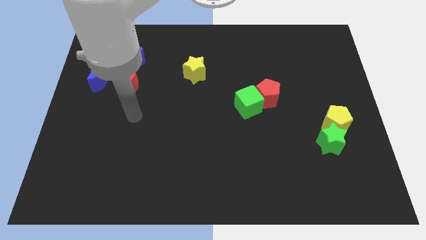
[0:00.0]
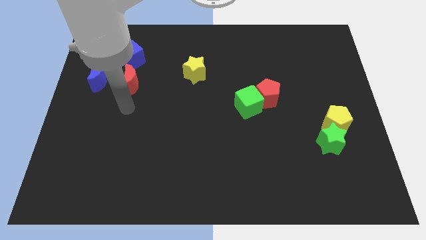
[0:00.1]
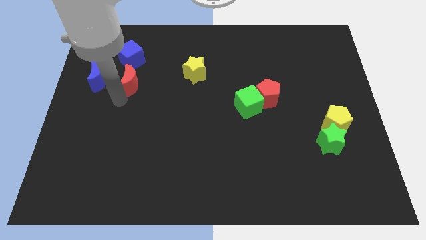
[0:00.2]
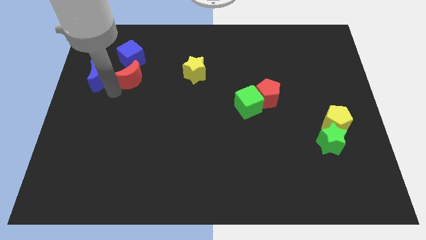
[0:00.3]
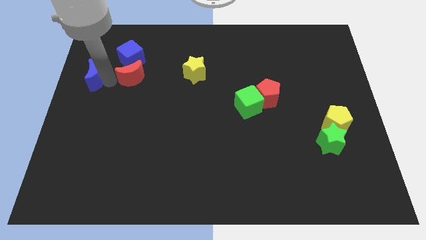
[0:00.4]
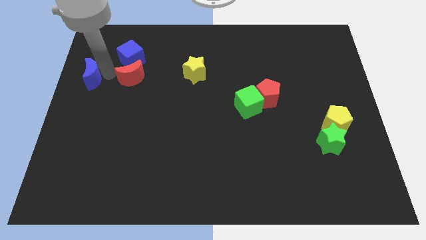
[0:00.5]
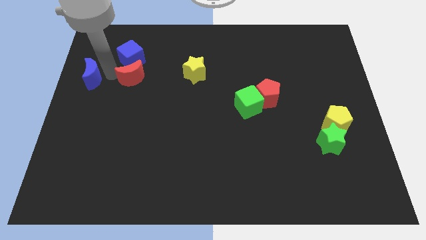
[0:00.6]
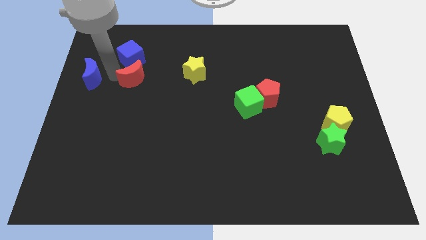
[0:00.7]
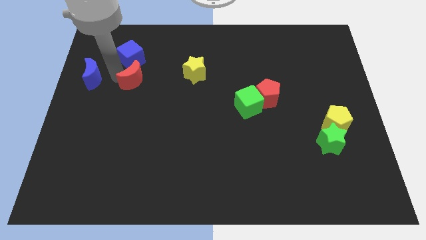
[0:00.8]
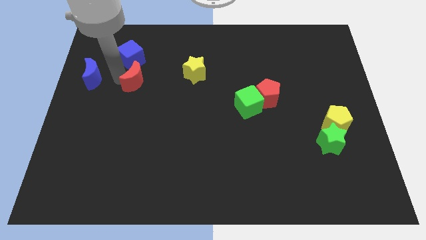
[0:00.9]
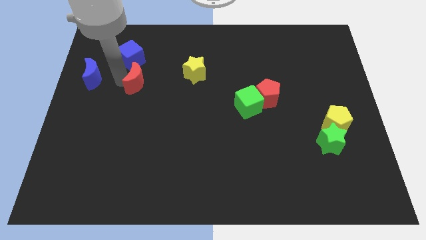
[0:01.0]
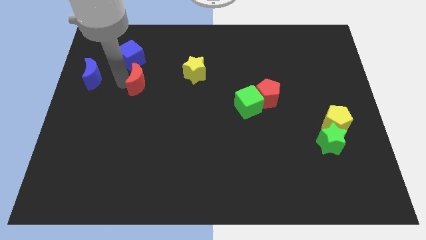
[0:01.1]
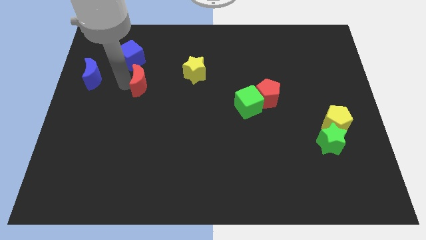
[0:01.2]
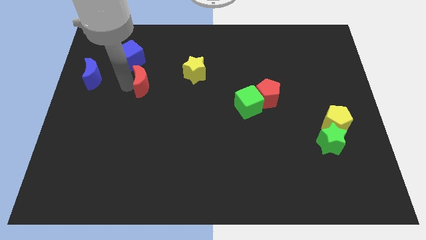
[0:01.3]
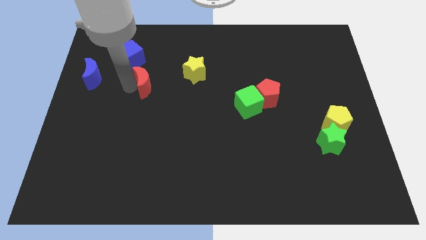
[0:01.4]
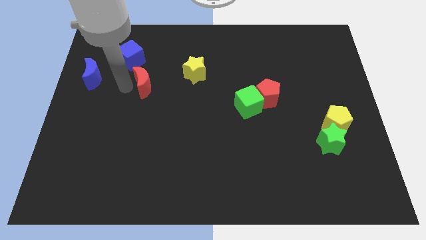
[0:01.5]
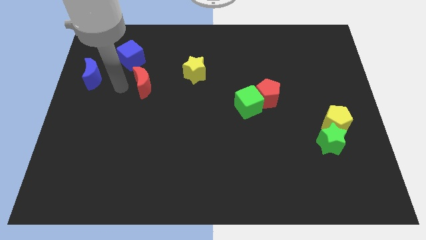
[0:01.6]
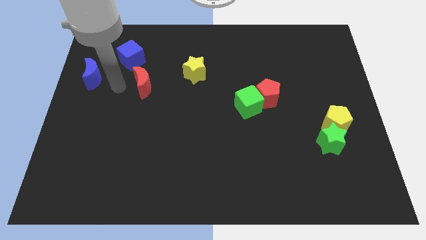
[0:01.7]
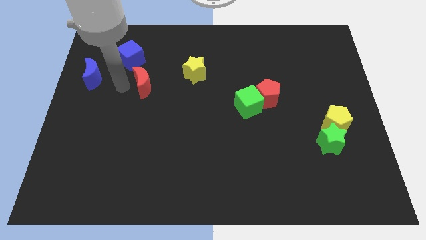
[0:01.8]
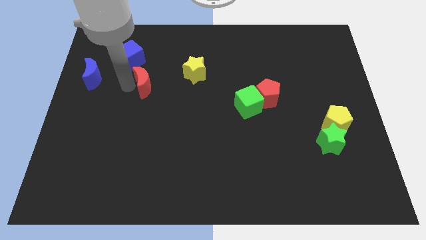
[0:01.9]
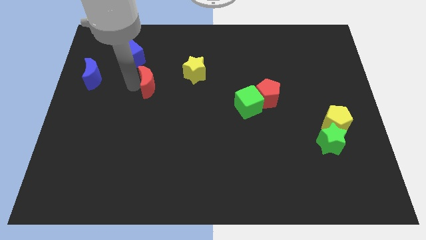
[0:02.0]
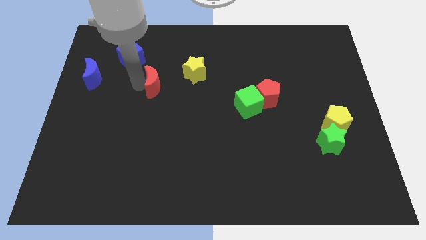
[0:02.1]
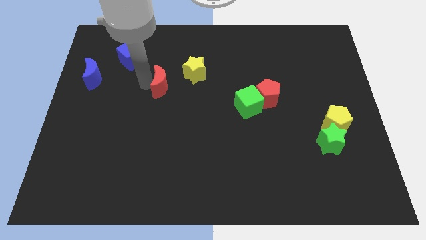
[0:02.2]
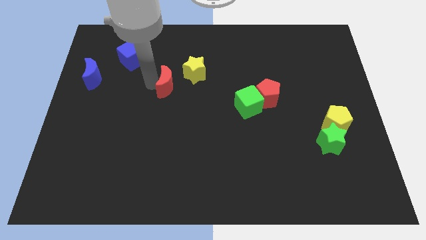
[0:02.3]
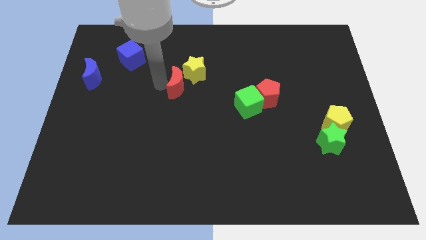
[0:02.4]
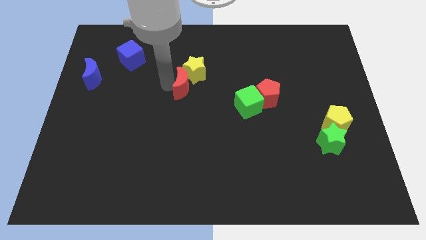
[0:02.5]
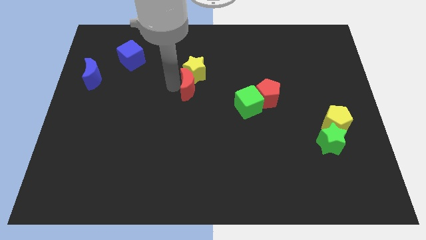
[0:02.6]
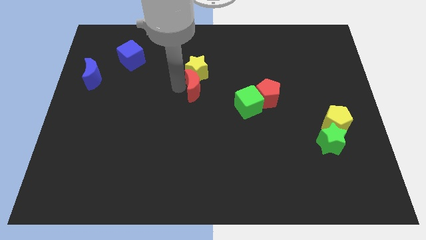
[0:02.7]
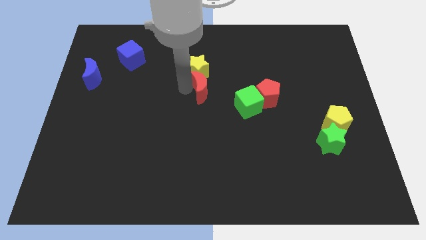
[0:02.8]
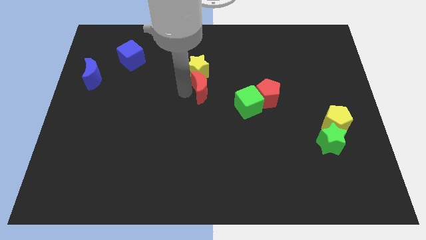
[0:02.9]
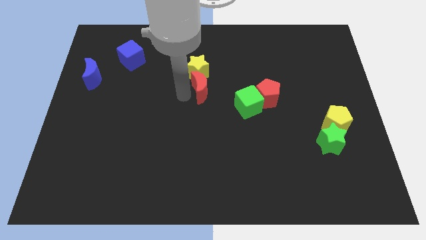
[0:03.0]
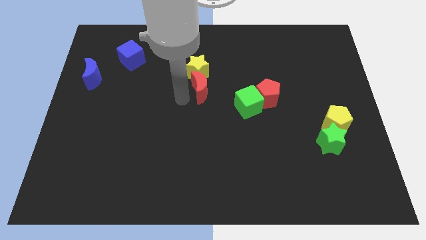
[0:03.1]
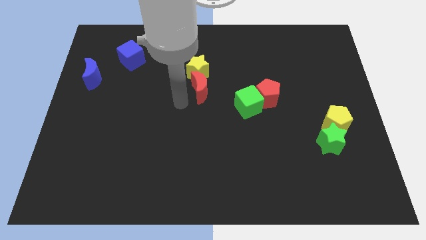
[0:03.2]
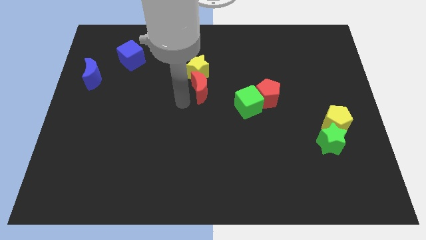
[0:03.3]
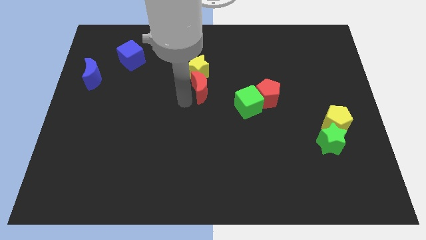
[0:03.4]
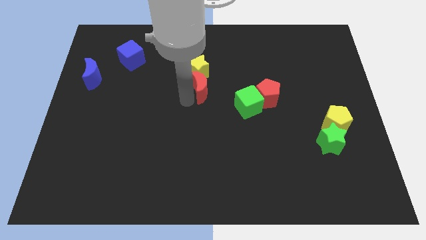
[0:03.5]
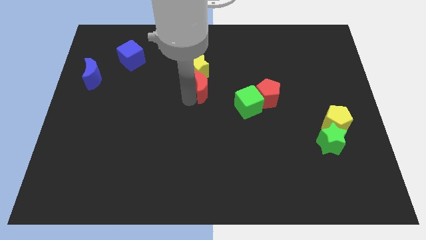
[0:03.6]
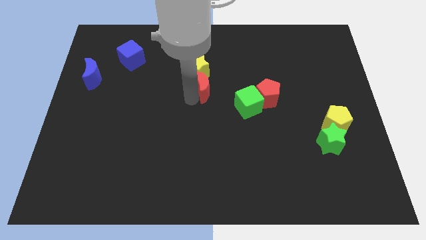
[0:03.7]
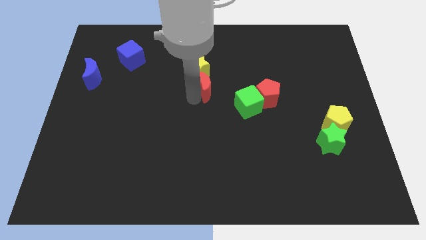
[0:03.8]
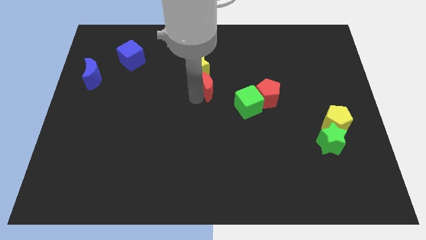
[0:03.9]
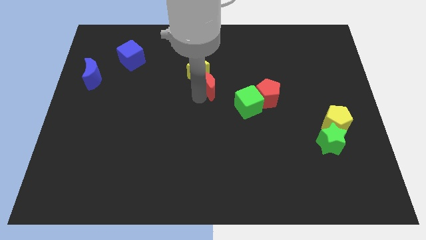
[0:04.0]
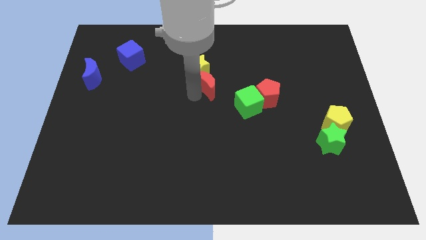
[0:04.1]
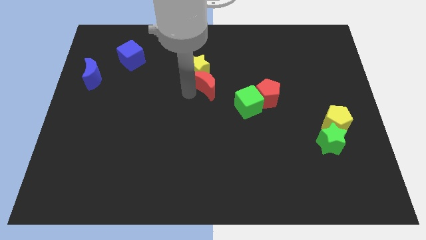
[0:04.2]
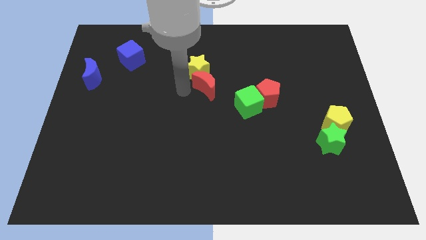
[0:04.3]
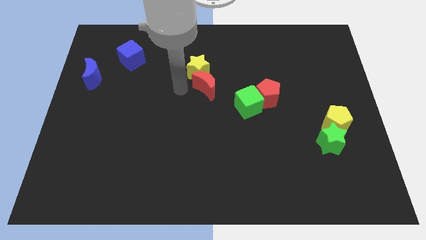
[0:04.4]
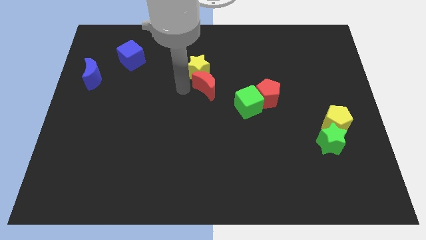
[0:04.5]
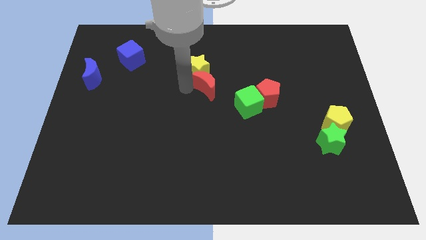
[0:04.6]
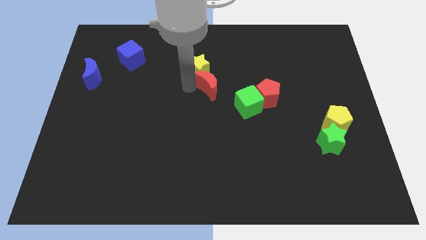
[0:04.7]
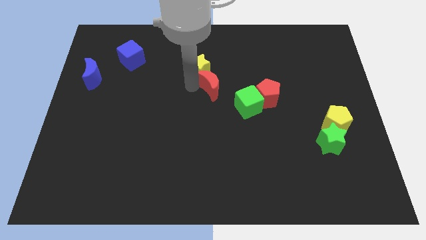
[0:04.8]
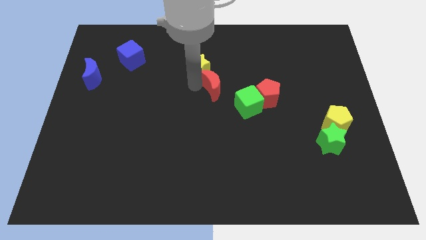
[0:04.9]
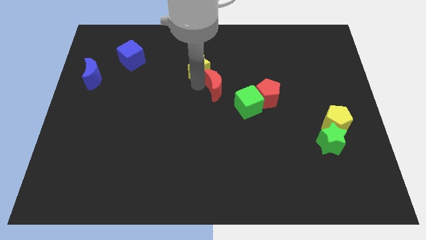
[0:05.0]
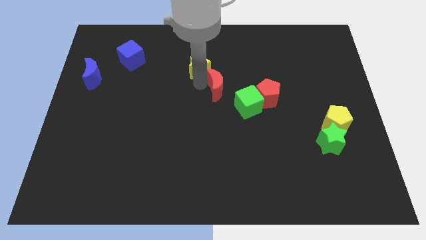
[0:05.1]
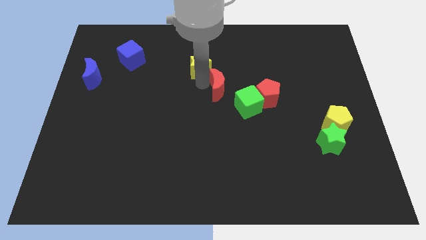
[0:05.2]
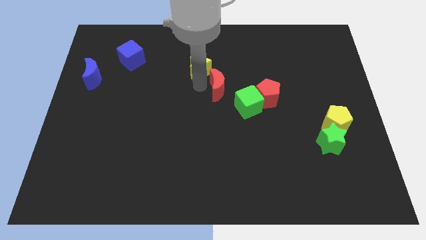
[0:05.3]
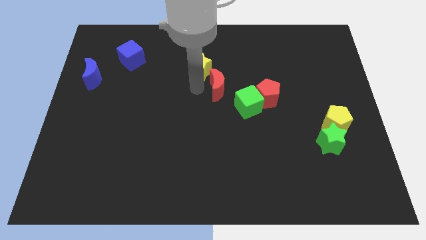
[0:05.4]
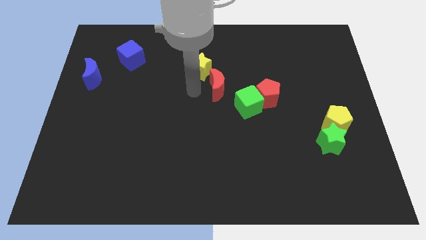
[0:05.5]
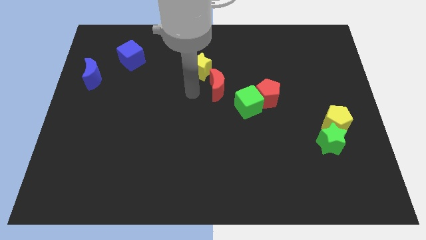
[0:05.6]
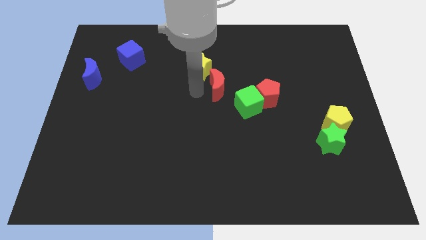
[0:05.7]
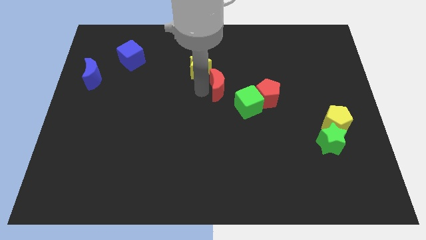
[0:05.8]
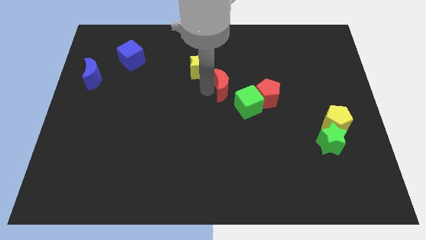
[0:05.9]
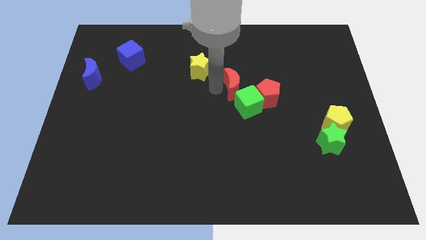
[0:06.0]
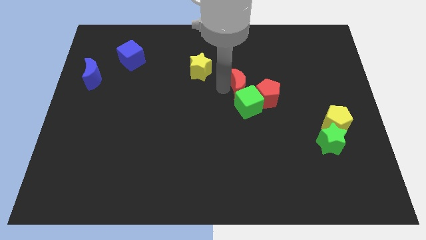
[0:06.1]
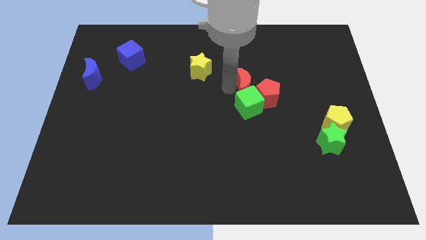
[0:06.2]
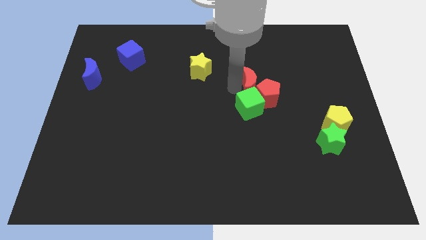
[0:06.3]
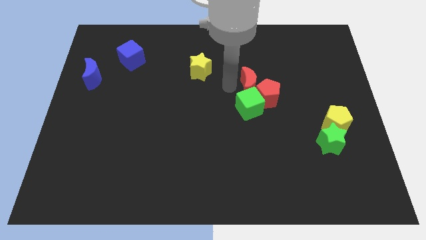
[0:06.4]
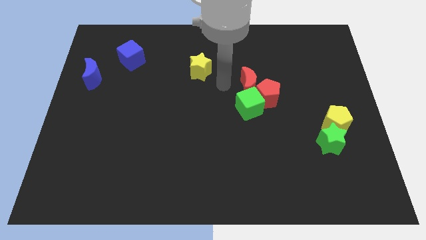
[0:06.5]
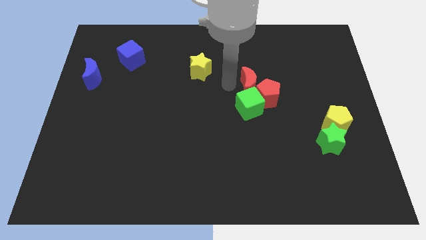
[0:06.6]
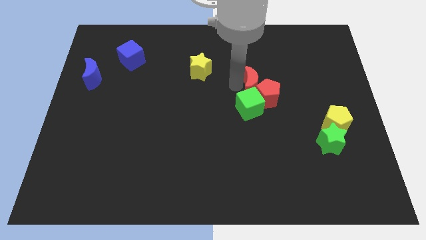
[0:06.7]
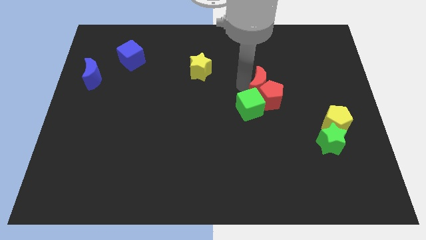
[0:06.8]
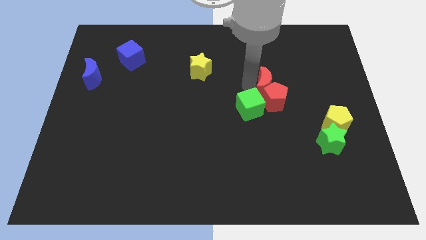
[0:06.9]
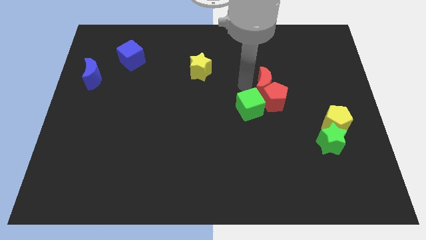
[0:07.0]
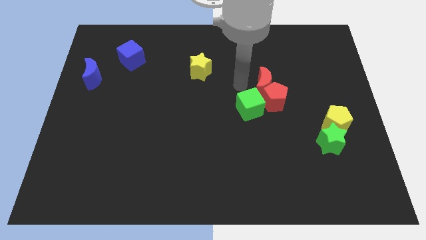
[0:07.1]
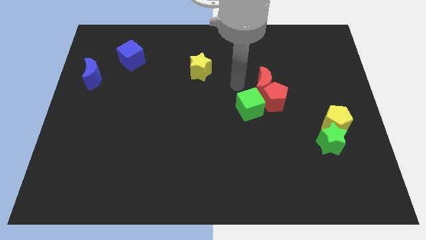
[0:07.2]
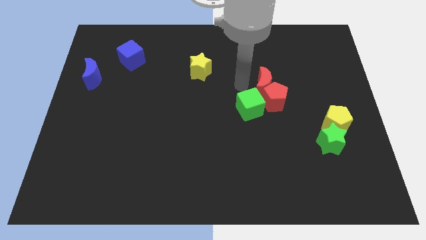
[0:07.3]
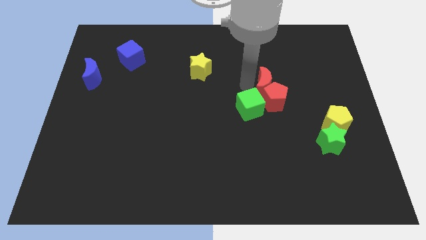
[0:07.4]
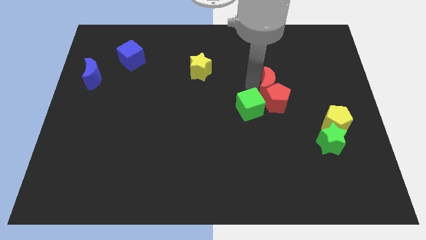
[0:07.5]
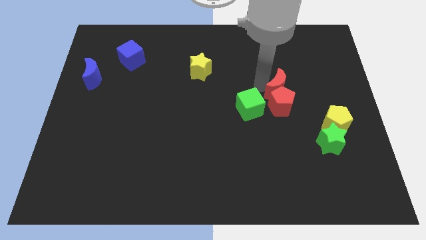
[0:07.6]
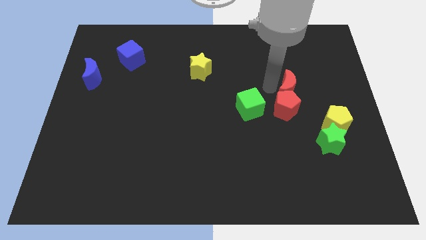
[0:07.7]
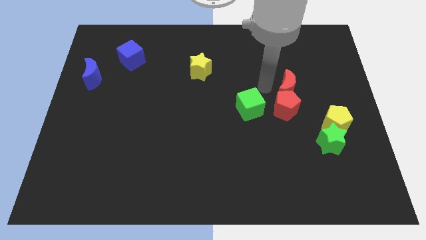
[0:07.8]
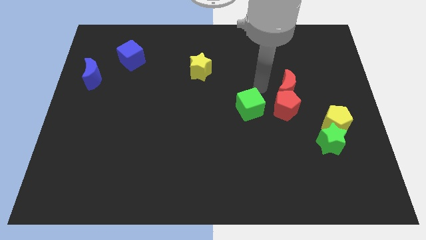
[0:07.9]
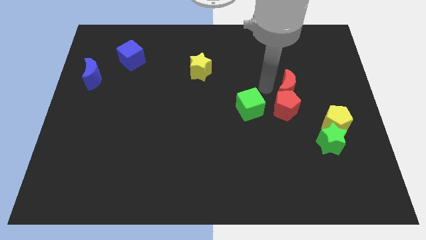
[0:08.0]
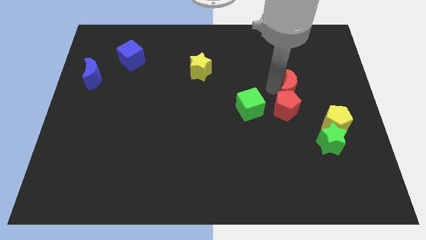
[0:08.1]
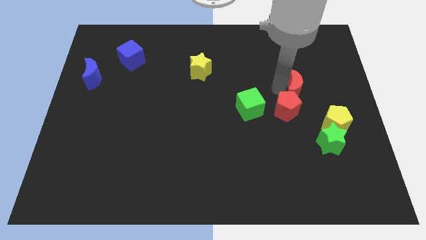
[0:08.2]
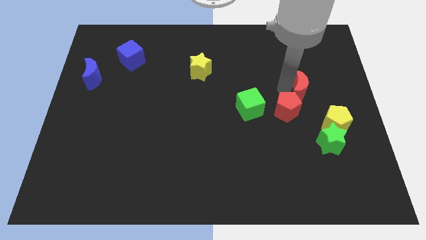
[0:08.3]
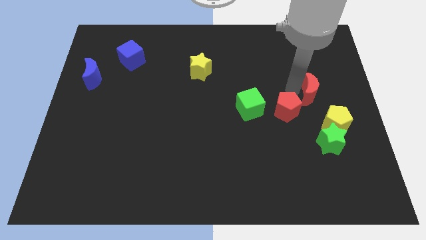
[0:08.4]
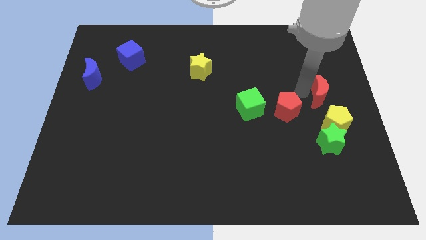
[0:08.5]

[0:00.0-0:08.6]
put the red moon to the center right
